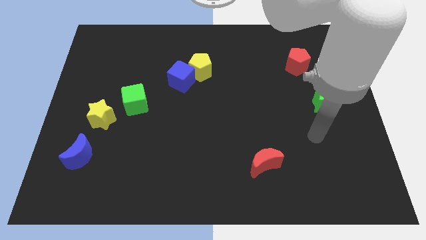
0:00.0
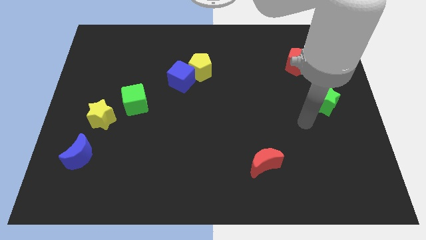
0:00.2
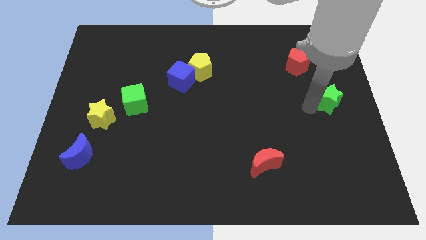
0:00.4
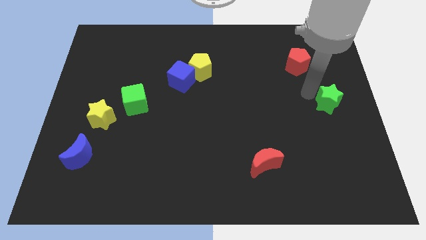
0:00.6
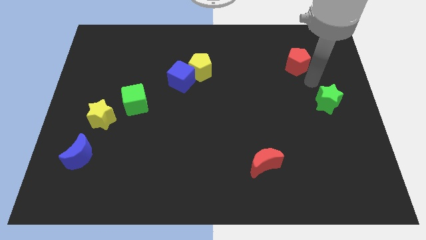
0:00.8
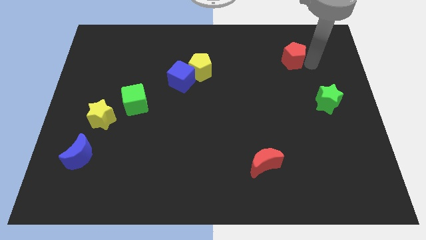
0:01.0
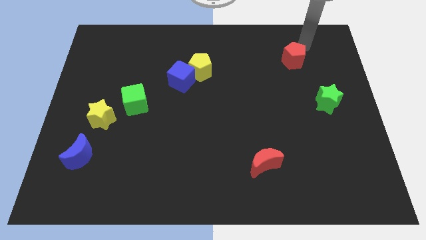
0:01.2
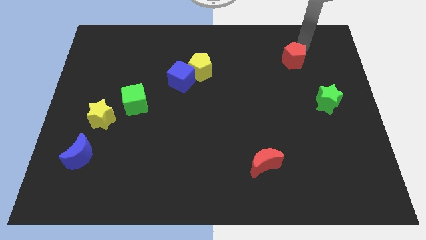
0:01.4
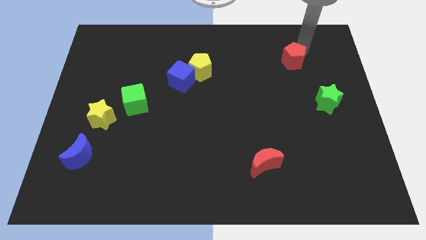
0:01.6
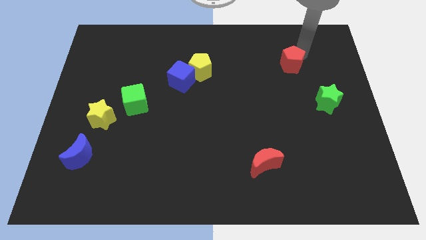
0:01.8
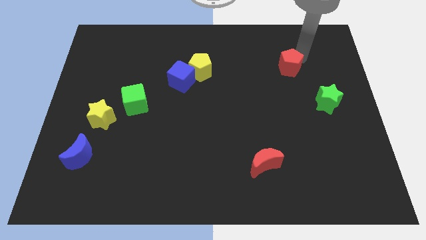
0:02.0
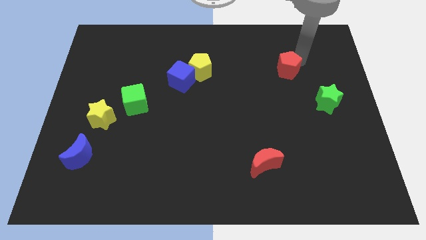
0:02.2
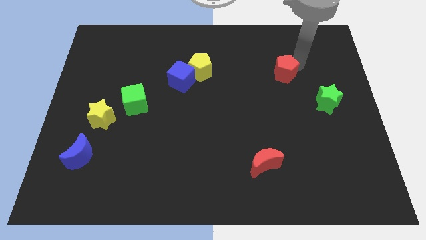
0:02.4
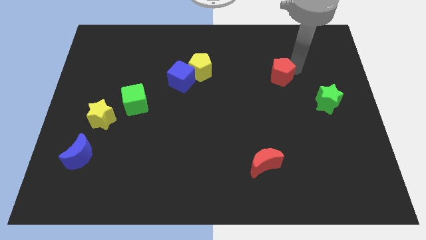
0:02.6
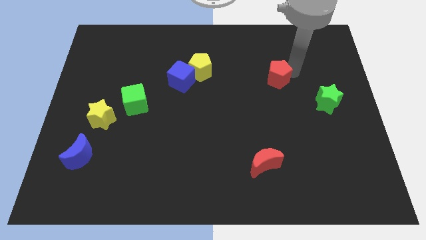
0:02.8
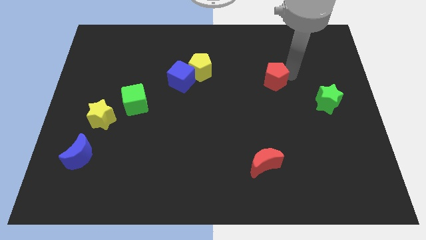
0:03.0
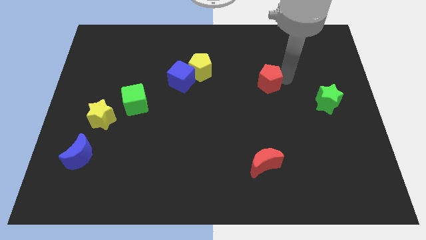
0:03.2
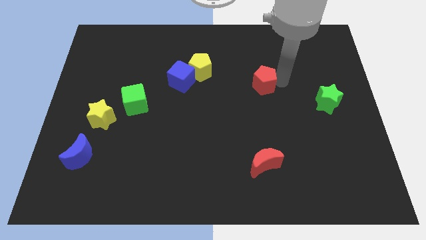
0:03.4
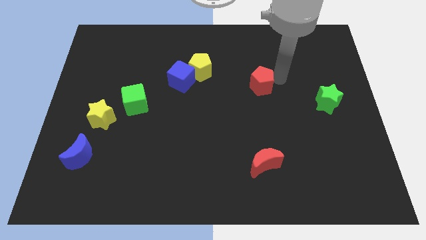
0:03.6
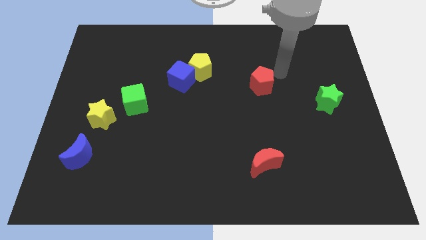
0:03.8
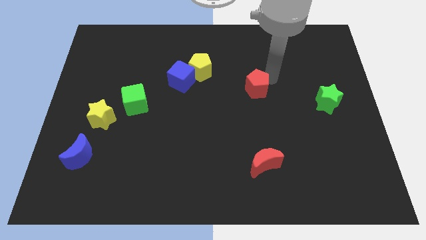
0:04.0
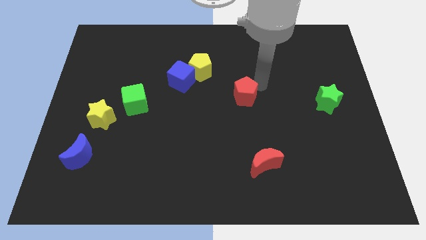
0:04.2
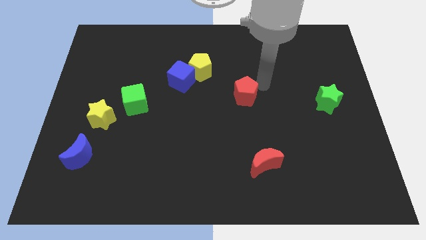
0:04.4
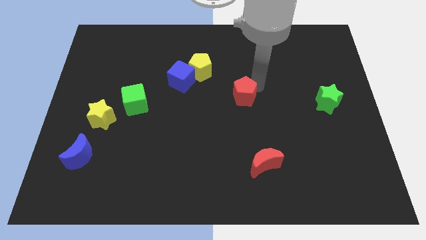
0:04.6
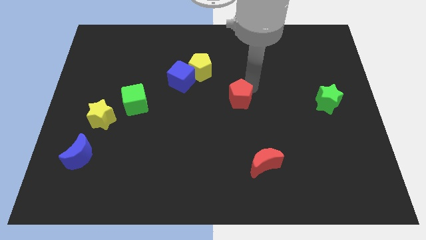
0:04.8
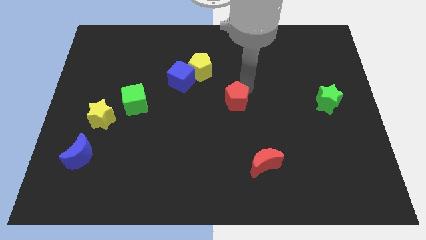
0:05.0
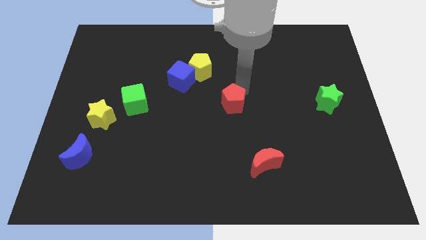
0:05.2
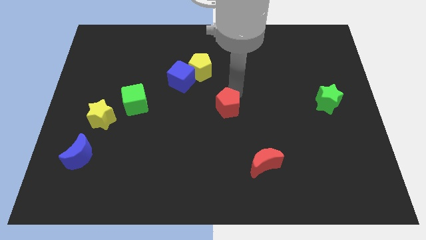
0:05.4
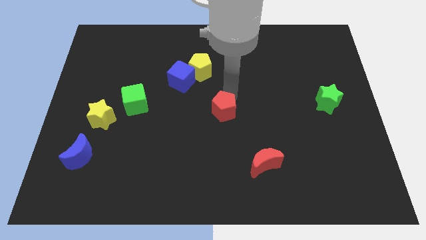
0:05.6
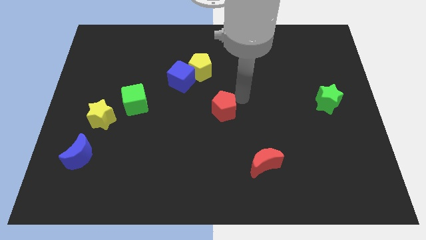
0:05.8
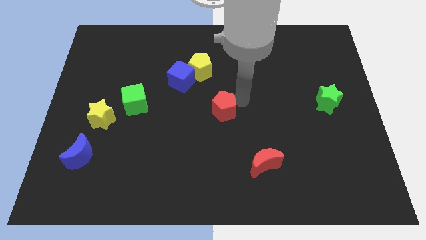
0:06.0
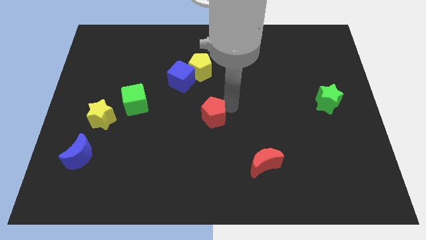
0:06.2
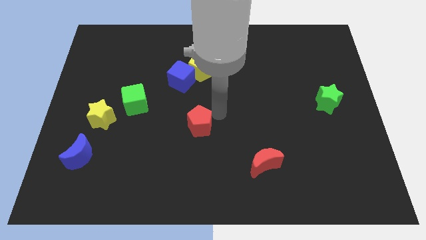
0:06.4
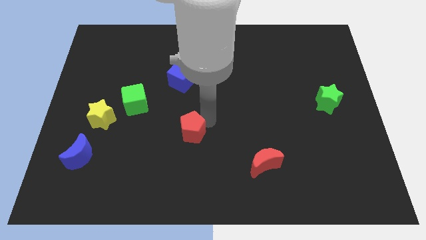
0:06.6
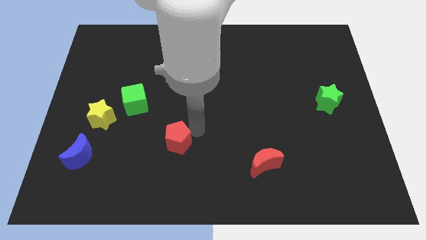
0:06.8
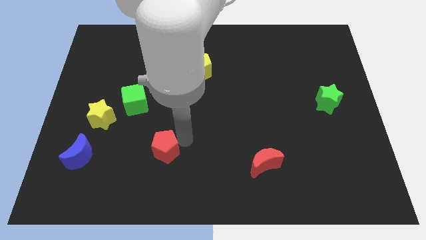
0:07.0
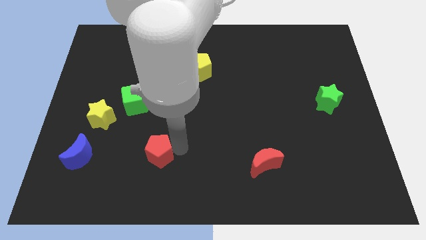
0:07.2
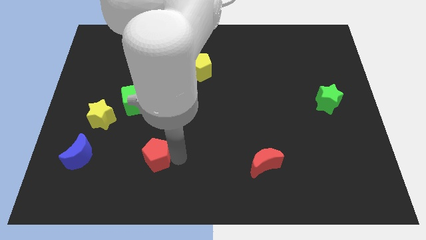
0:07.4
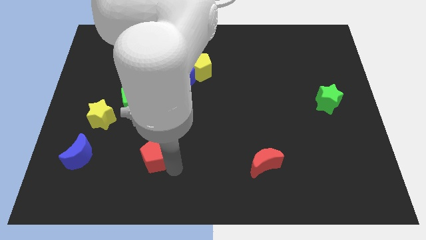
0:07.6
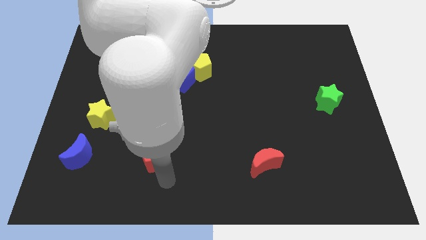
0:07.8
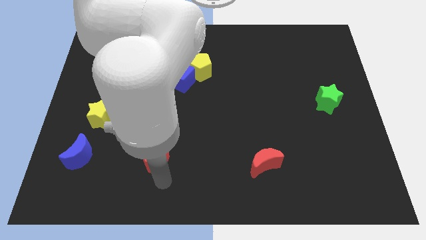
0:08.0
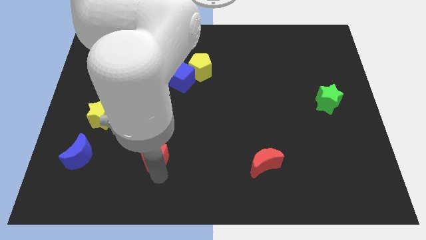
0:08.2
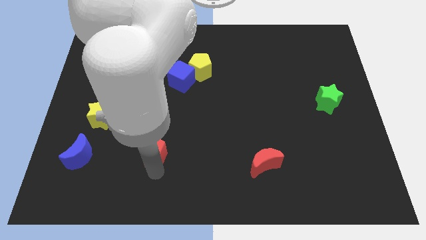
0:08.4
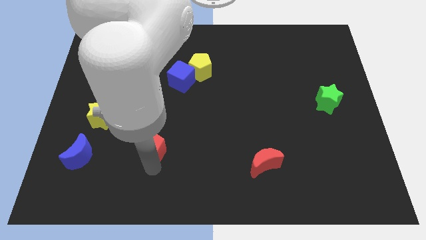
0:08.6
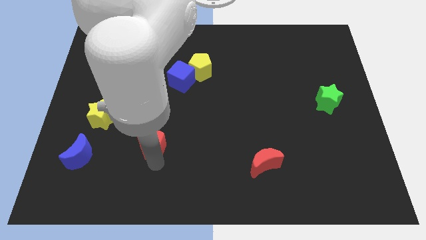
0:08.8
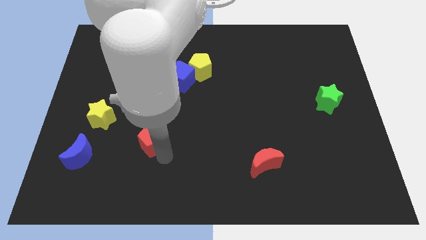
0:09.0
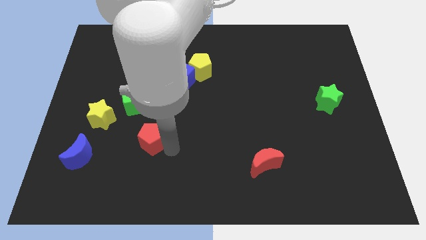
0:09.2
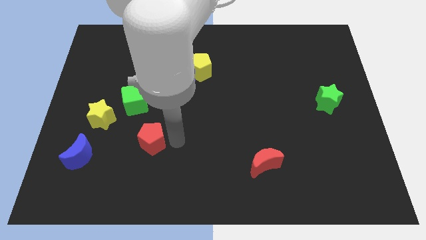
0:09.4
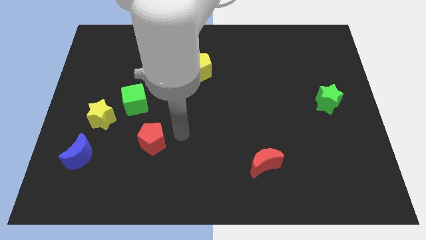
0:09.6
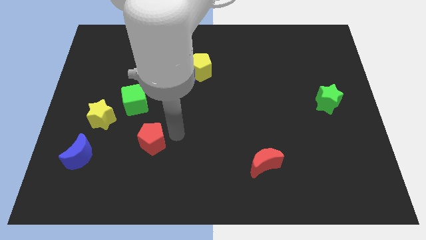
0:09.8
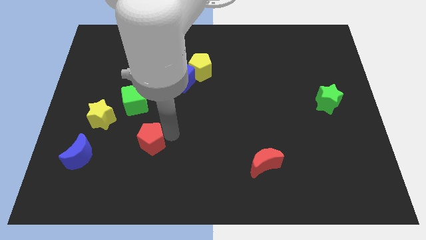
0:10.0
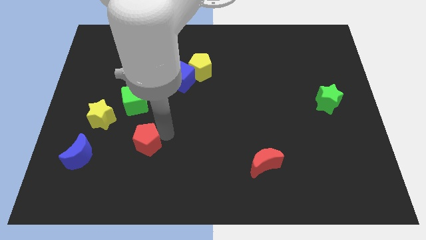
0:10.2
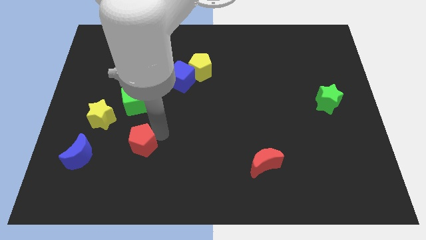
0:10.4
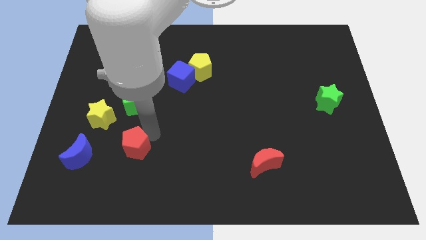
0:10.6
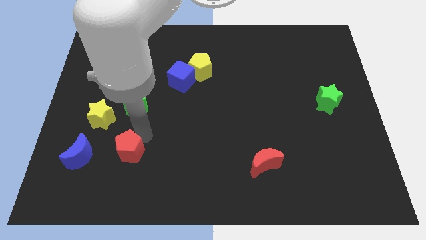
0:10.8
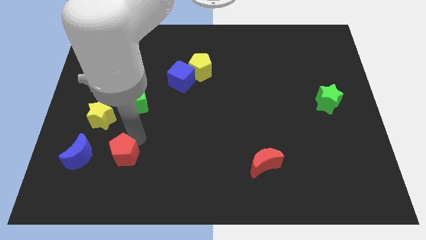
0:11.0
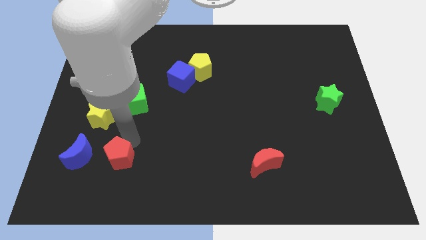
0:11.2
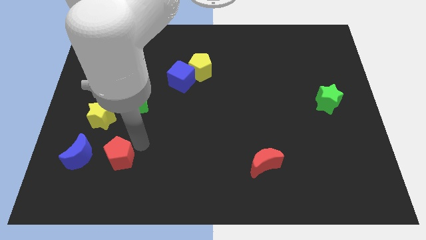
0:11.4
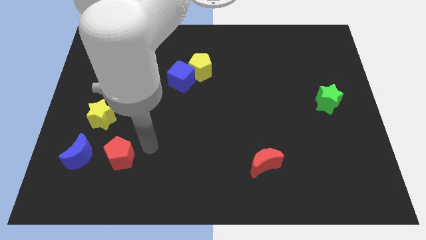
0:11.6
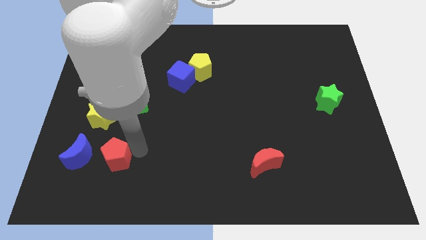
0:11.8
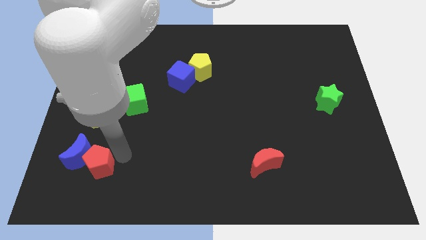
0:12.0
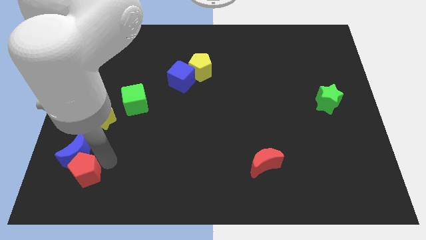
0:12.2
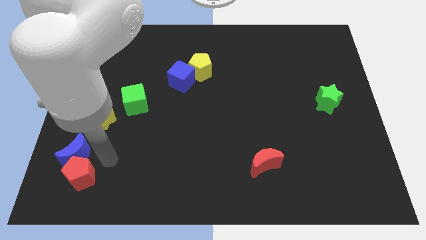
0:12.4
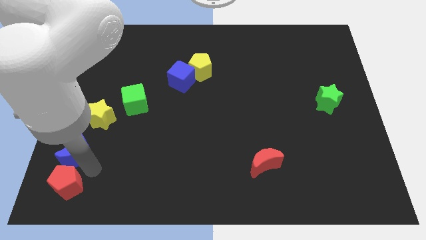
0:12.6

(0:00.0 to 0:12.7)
push the red pentagon to the bottom left

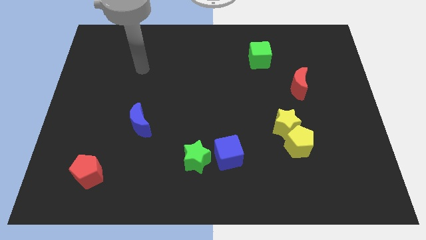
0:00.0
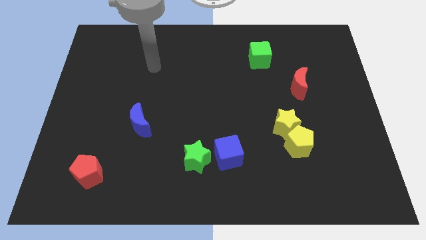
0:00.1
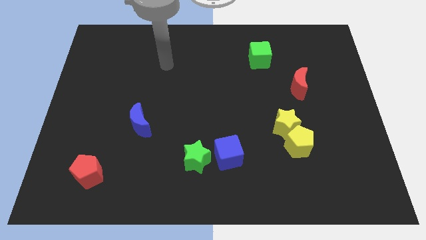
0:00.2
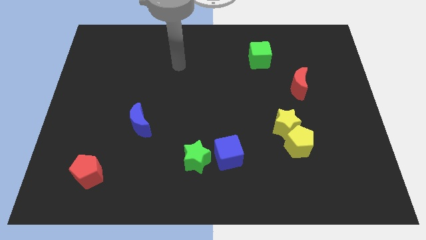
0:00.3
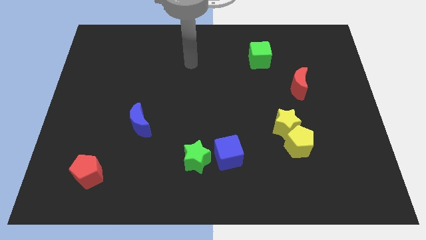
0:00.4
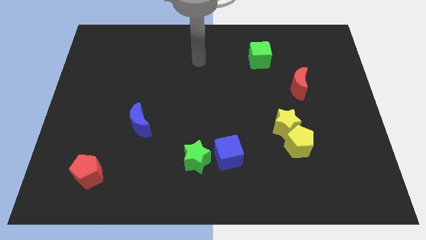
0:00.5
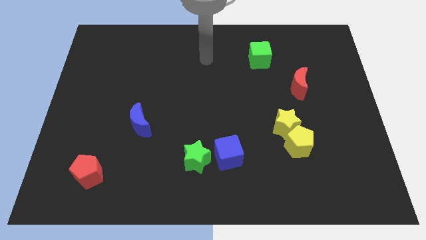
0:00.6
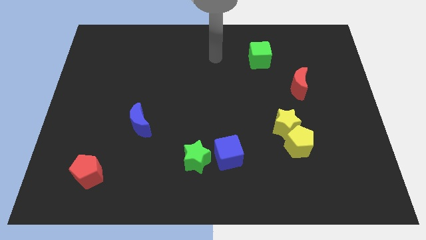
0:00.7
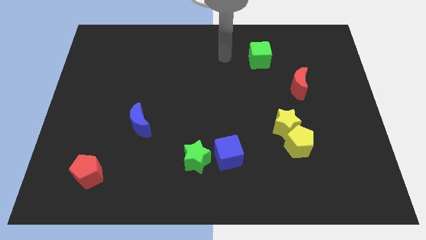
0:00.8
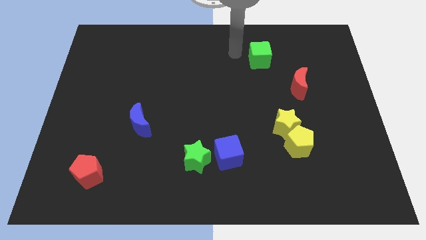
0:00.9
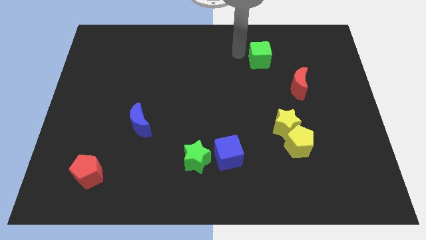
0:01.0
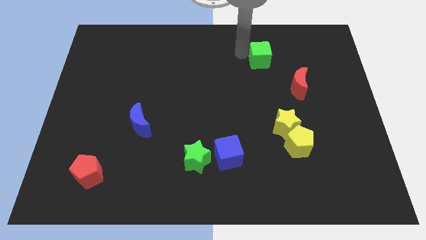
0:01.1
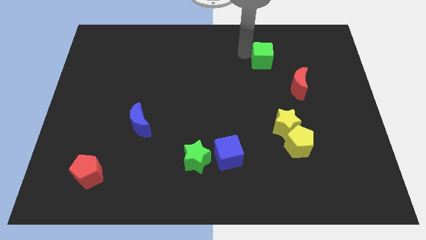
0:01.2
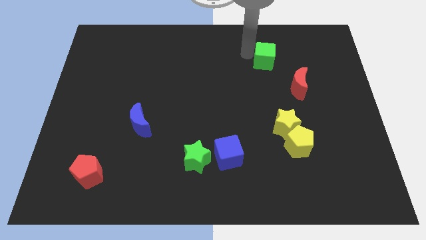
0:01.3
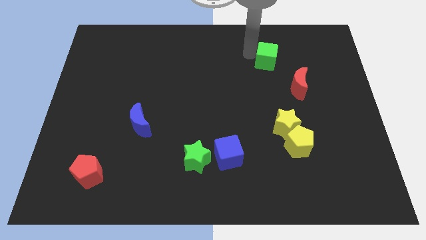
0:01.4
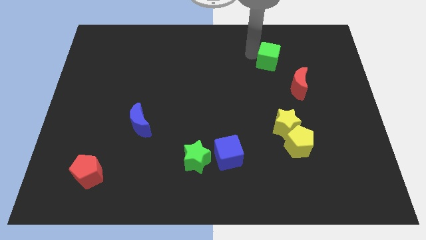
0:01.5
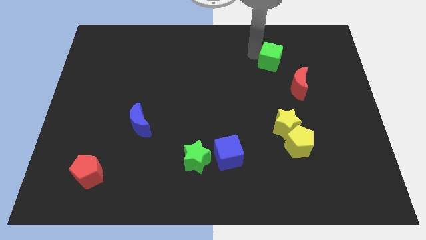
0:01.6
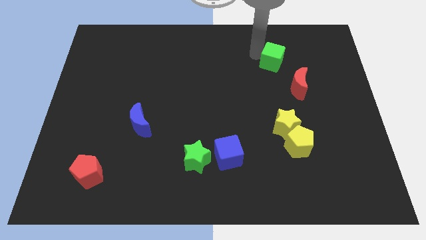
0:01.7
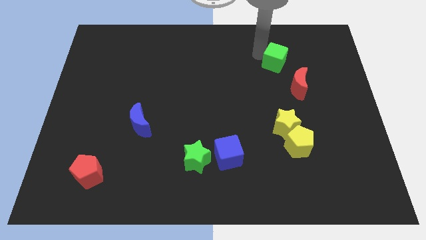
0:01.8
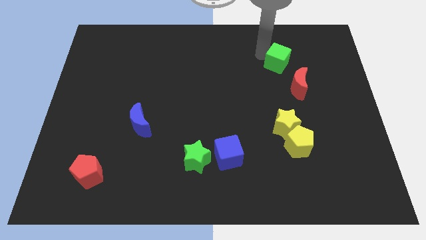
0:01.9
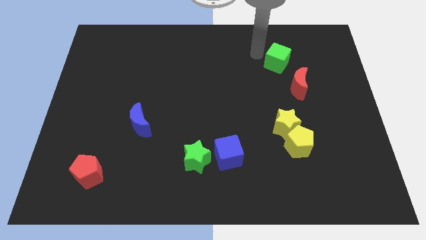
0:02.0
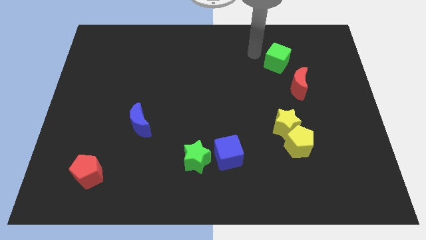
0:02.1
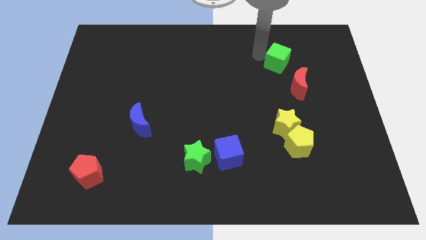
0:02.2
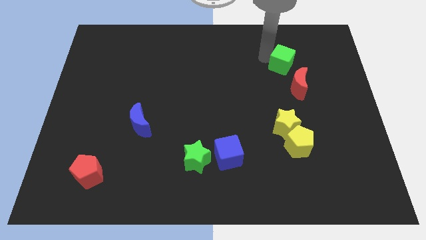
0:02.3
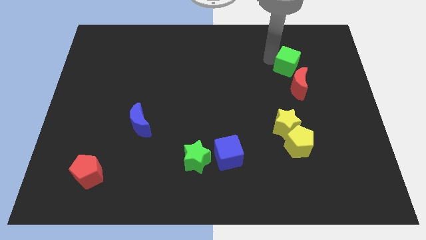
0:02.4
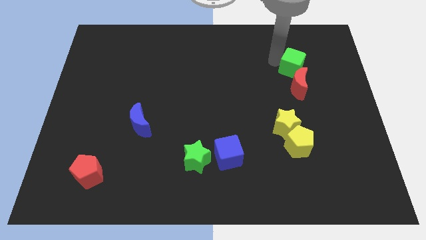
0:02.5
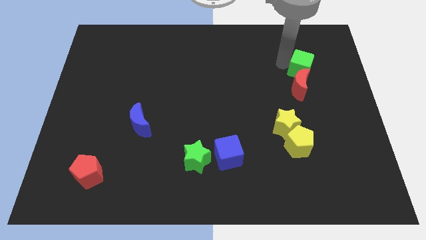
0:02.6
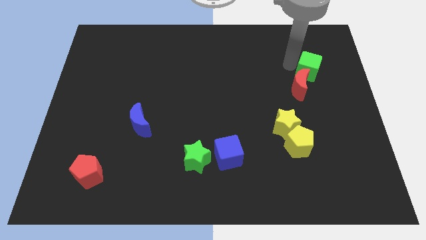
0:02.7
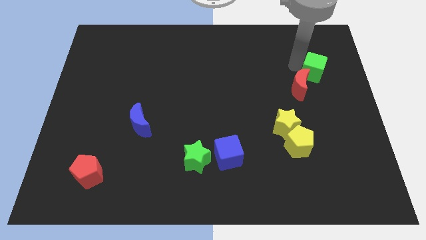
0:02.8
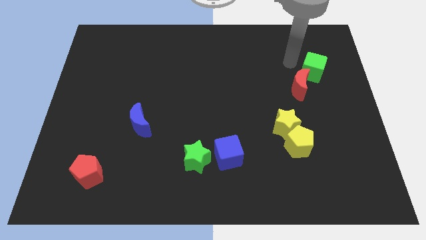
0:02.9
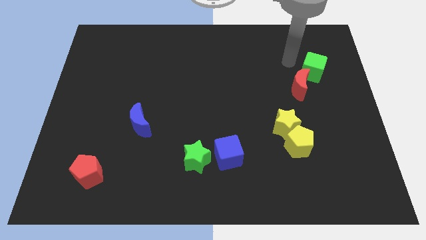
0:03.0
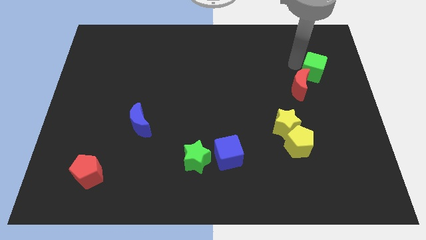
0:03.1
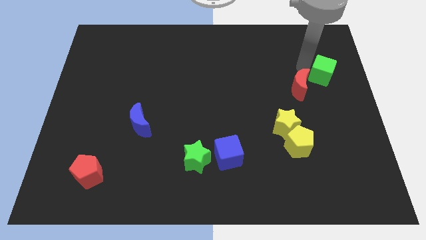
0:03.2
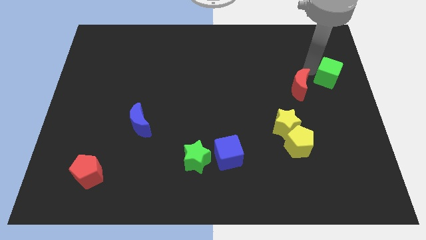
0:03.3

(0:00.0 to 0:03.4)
move the green cube to the right side
